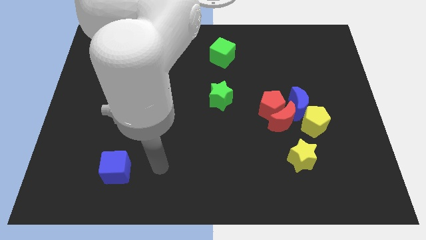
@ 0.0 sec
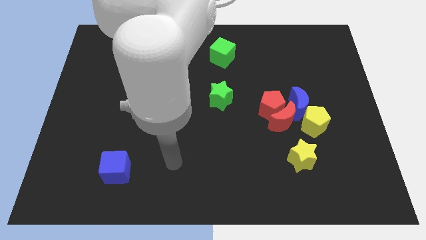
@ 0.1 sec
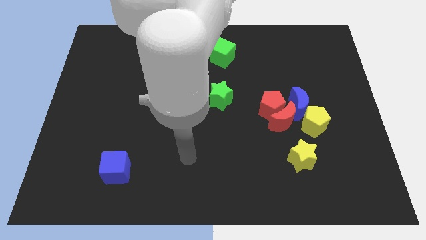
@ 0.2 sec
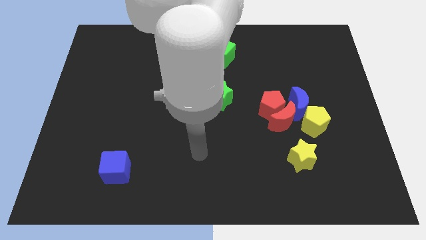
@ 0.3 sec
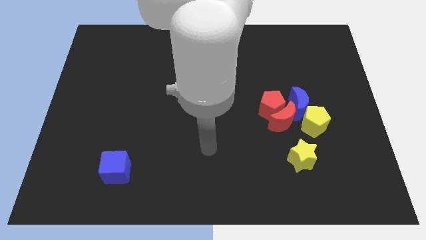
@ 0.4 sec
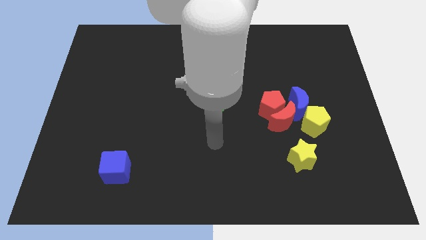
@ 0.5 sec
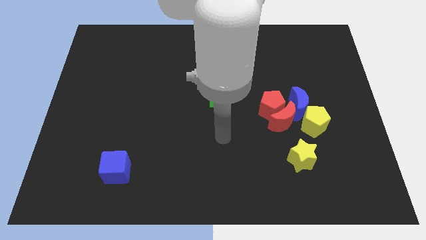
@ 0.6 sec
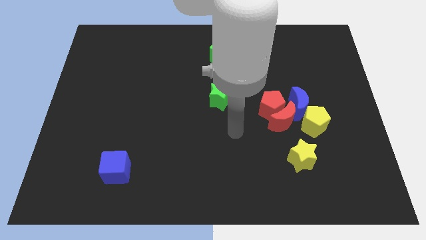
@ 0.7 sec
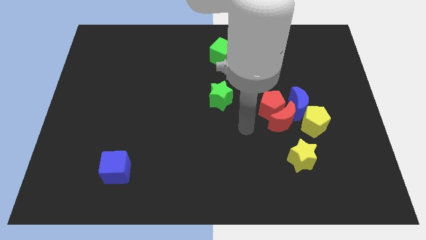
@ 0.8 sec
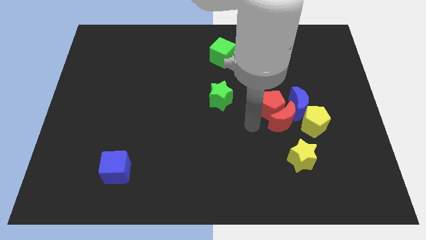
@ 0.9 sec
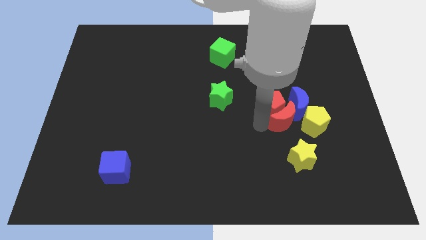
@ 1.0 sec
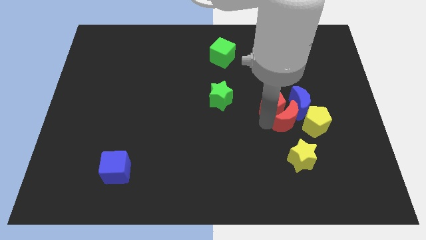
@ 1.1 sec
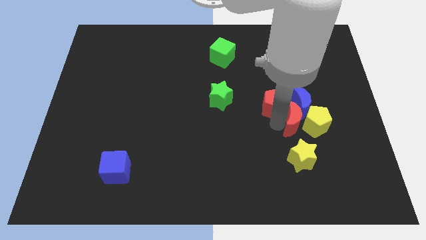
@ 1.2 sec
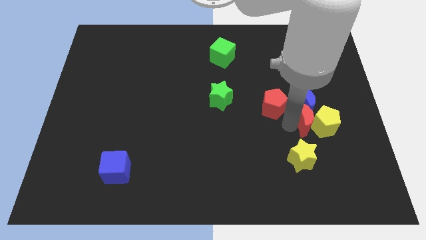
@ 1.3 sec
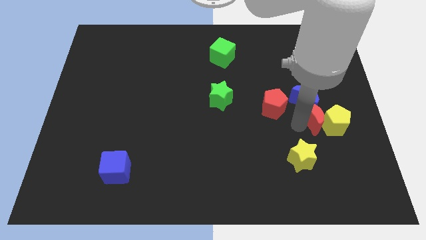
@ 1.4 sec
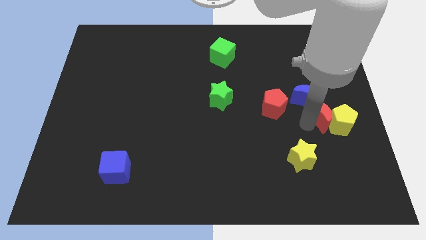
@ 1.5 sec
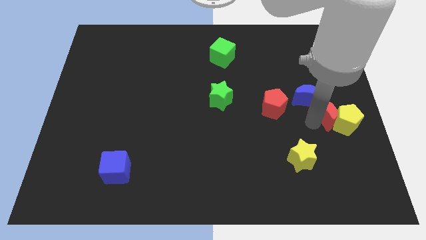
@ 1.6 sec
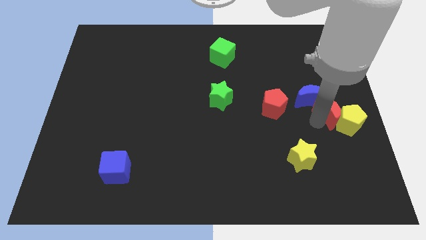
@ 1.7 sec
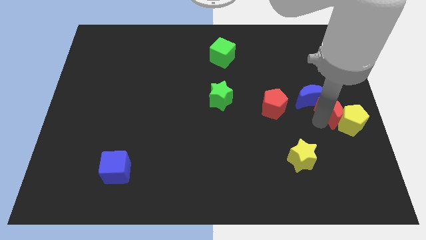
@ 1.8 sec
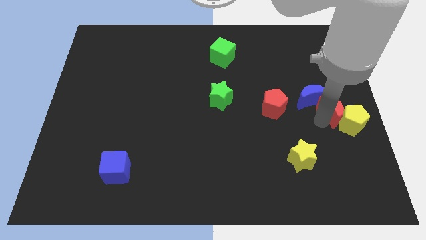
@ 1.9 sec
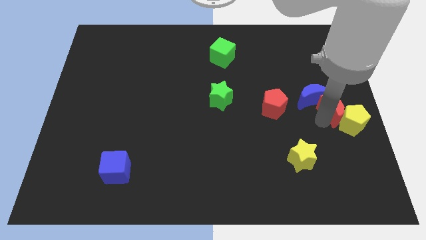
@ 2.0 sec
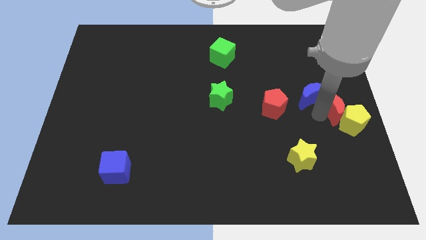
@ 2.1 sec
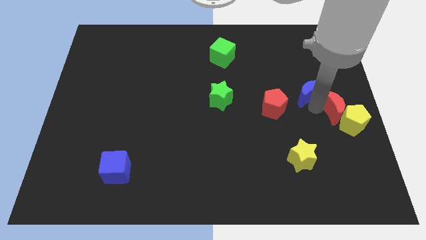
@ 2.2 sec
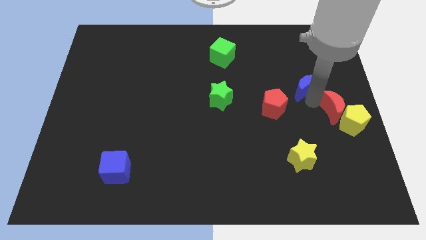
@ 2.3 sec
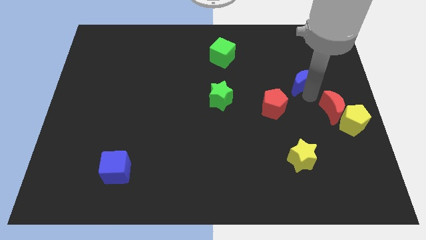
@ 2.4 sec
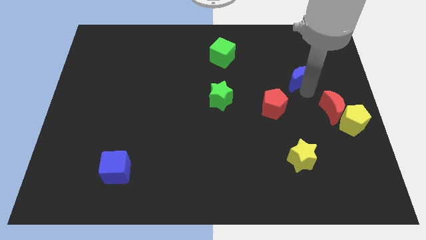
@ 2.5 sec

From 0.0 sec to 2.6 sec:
pull the blue moon apart from the clump

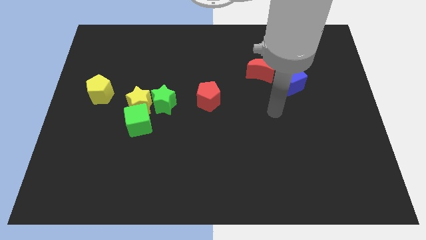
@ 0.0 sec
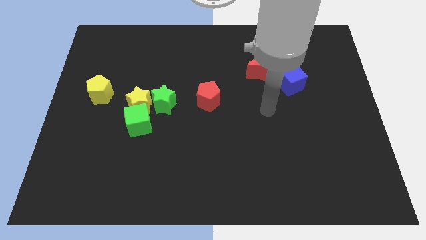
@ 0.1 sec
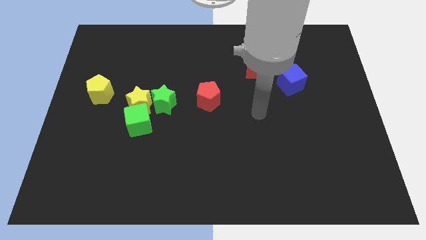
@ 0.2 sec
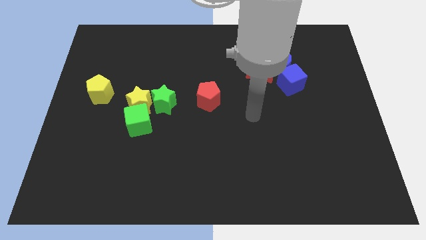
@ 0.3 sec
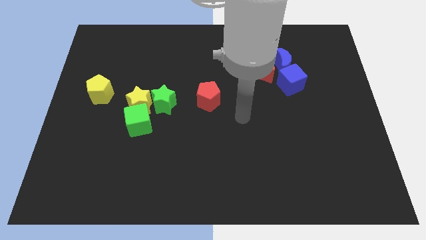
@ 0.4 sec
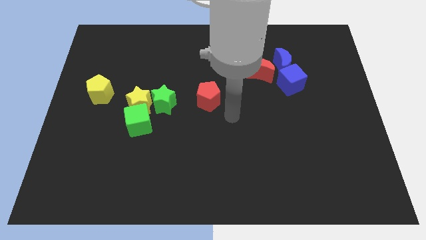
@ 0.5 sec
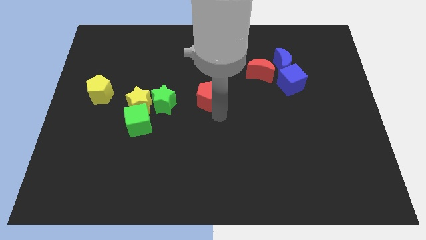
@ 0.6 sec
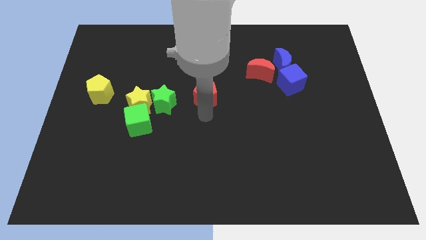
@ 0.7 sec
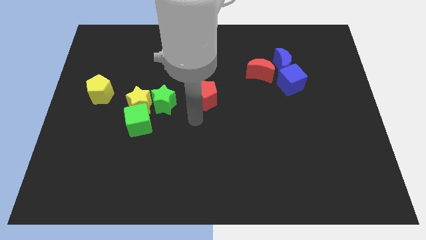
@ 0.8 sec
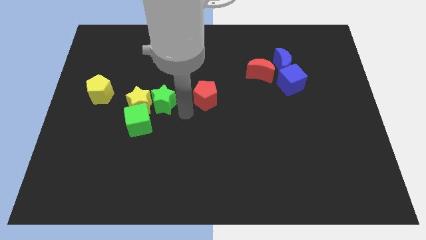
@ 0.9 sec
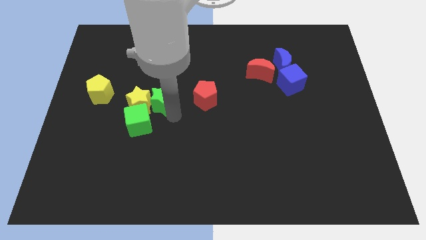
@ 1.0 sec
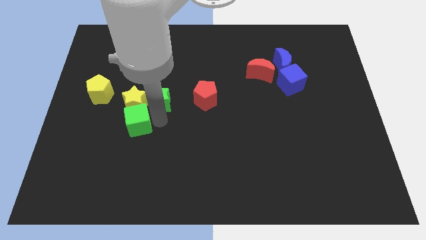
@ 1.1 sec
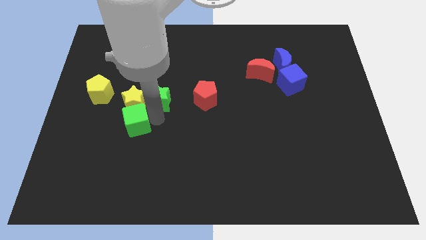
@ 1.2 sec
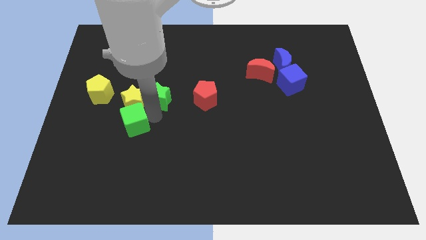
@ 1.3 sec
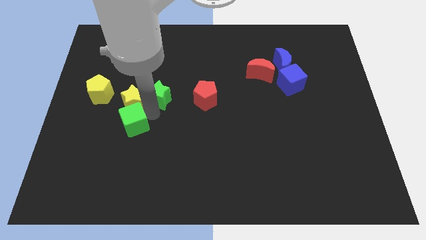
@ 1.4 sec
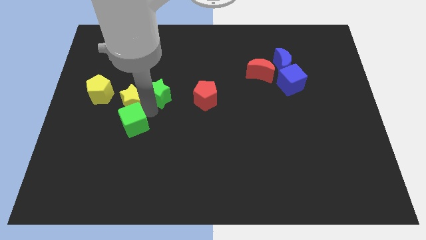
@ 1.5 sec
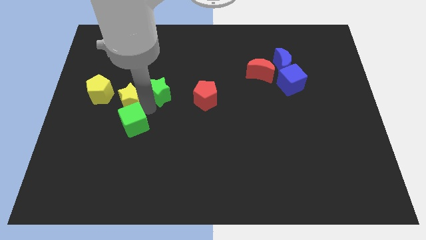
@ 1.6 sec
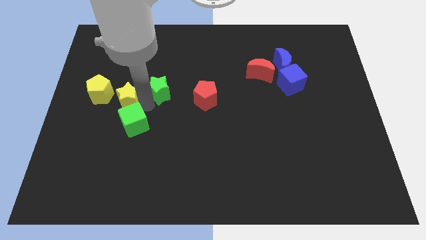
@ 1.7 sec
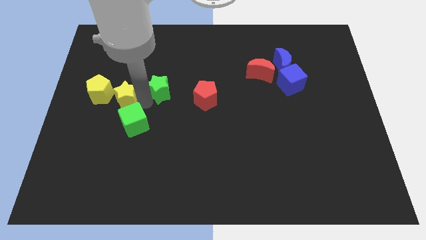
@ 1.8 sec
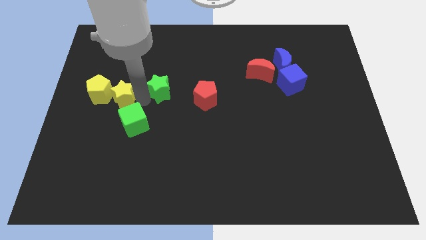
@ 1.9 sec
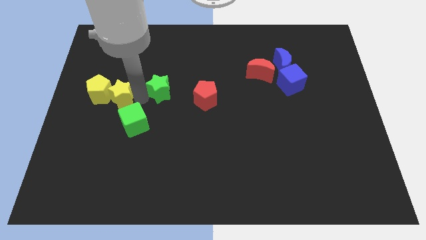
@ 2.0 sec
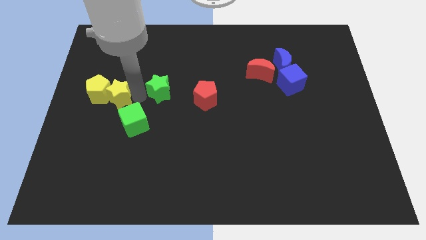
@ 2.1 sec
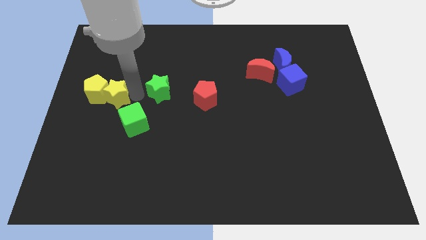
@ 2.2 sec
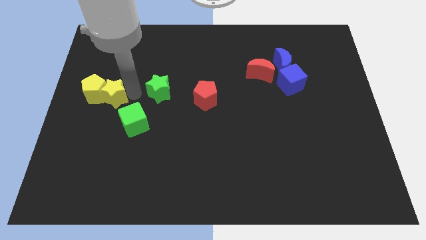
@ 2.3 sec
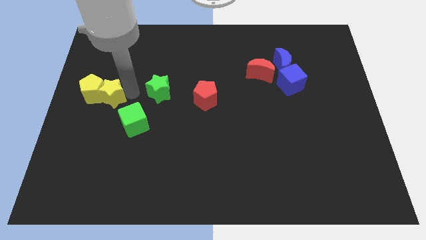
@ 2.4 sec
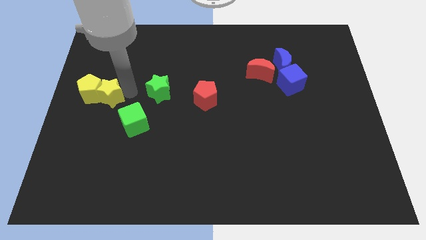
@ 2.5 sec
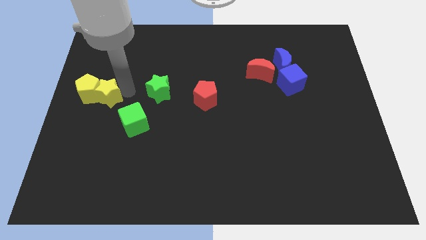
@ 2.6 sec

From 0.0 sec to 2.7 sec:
move the yellow star away from the green star and green cube

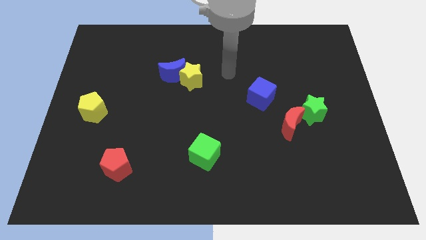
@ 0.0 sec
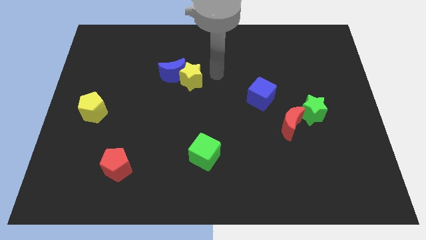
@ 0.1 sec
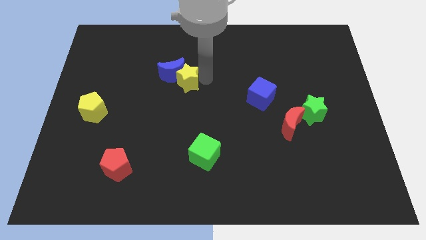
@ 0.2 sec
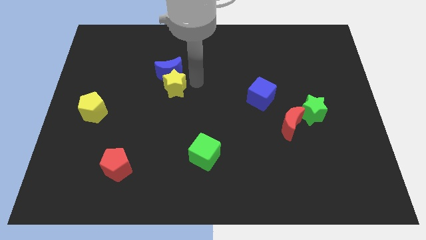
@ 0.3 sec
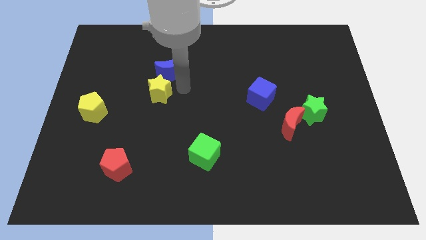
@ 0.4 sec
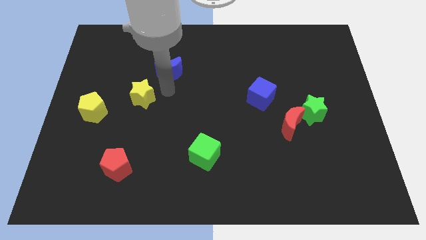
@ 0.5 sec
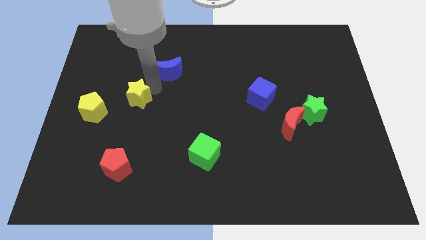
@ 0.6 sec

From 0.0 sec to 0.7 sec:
separate the blue moon from the yellow star

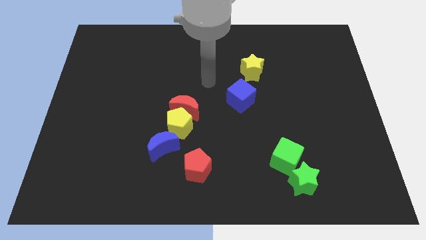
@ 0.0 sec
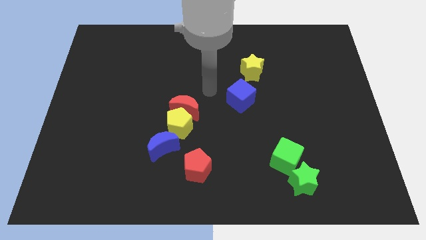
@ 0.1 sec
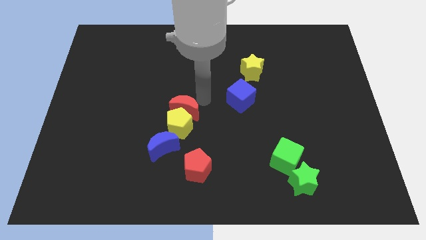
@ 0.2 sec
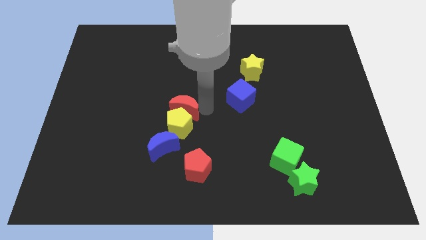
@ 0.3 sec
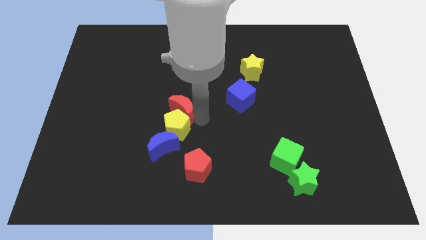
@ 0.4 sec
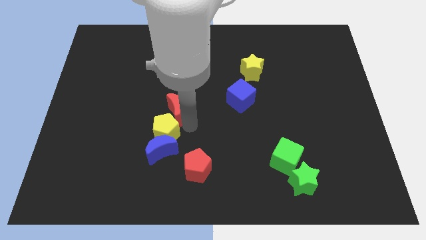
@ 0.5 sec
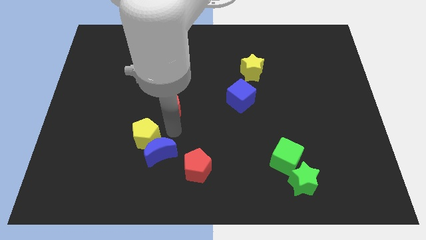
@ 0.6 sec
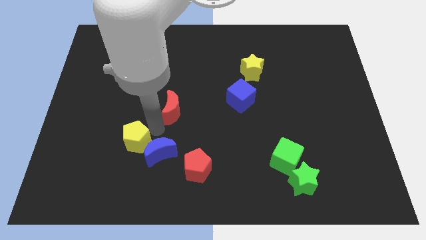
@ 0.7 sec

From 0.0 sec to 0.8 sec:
pull the red moon apart from the yellow pentagon

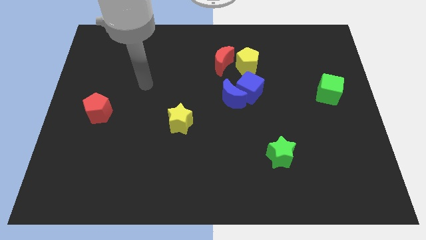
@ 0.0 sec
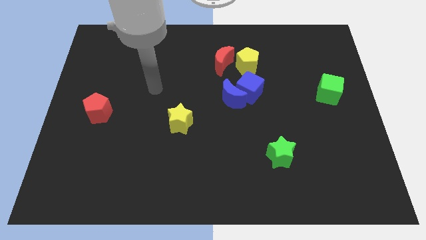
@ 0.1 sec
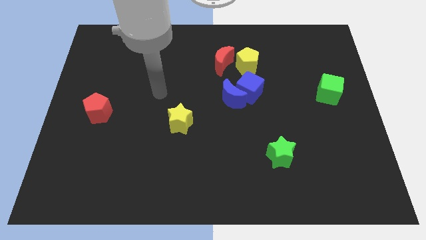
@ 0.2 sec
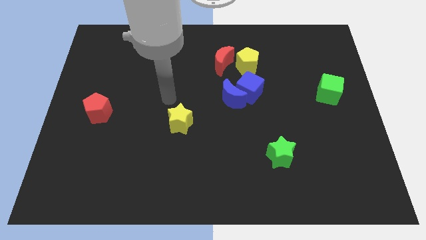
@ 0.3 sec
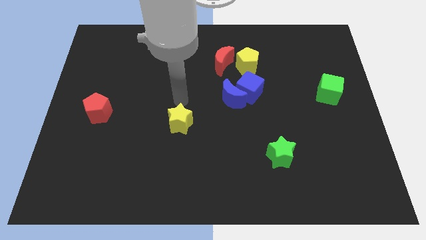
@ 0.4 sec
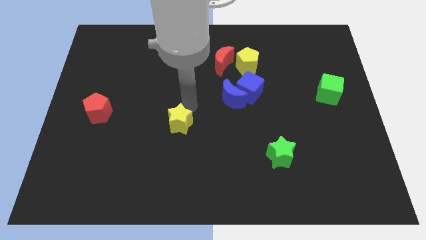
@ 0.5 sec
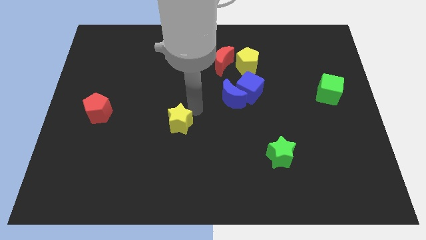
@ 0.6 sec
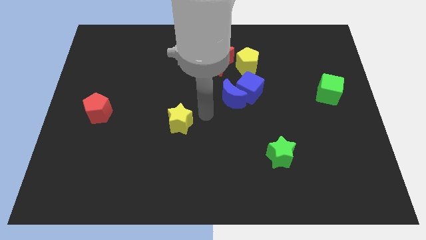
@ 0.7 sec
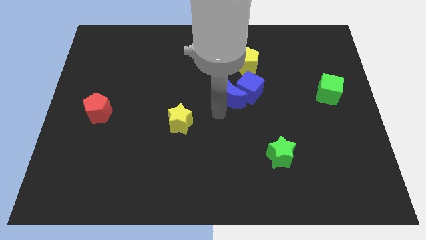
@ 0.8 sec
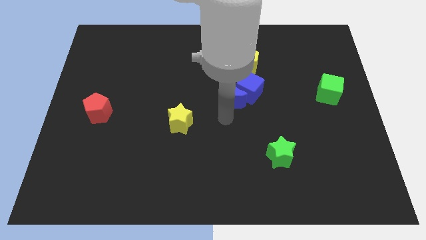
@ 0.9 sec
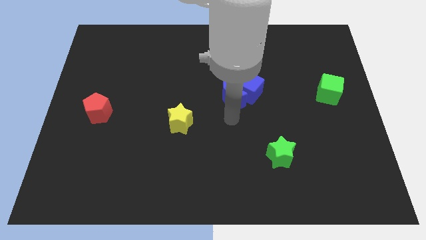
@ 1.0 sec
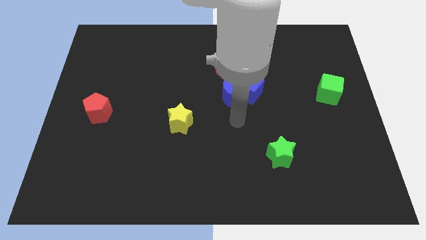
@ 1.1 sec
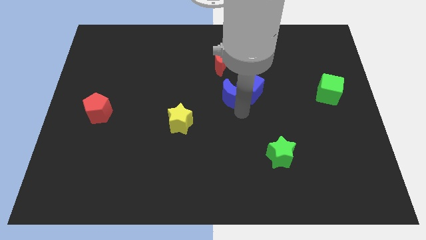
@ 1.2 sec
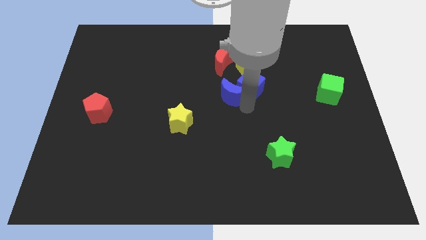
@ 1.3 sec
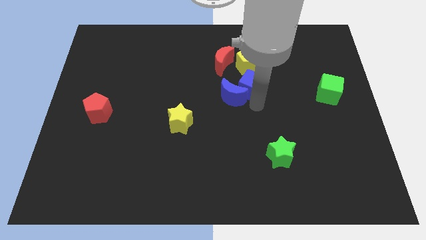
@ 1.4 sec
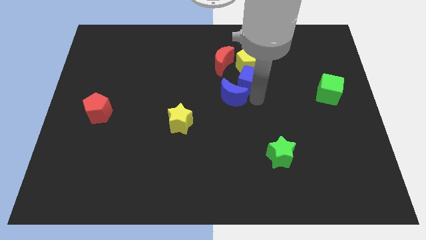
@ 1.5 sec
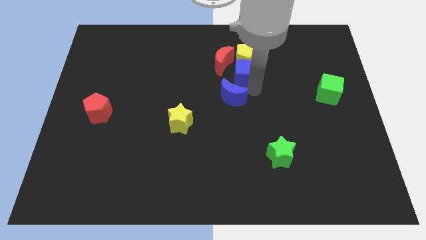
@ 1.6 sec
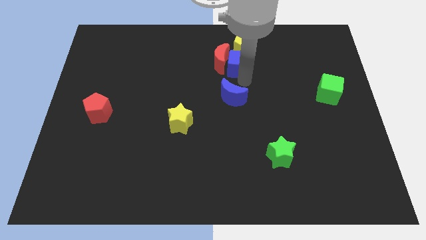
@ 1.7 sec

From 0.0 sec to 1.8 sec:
move the blue moon away from the blue cube

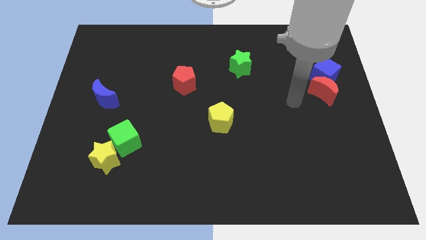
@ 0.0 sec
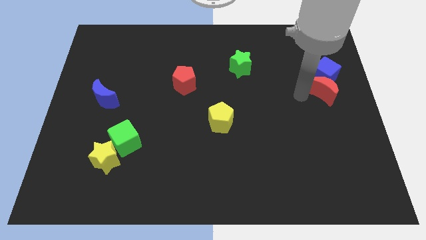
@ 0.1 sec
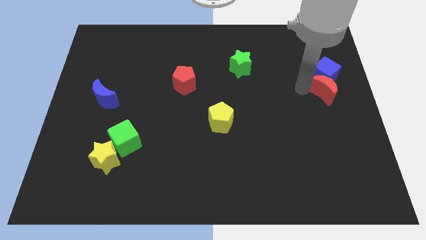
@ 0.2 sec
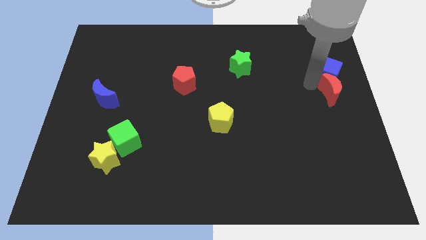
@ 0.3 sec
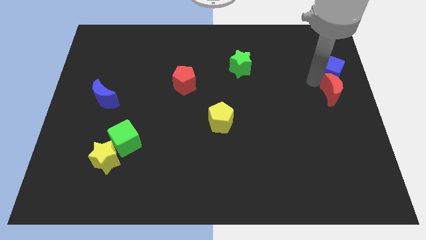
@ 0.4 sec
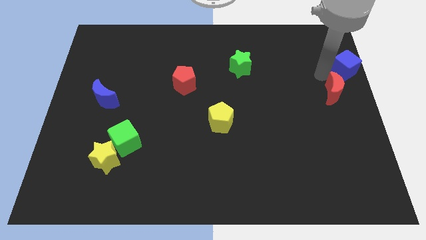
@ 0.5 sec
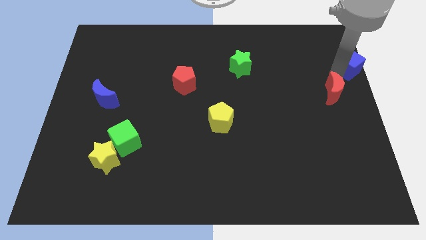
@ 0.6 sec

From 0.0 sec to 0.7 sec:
move the red moon away from the blue cube
